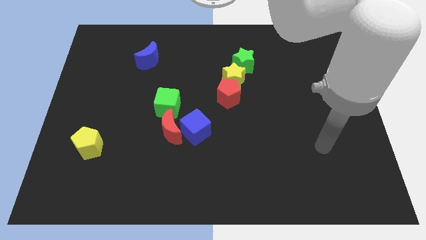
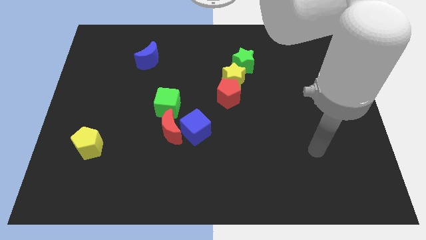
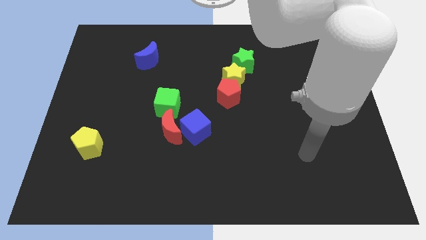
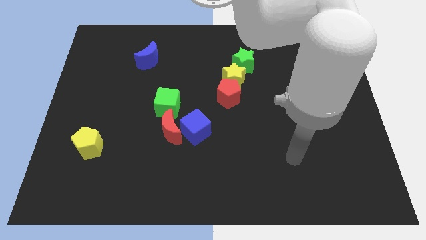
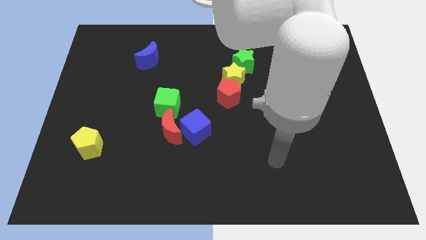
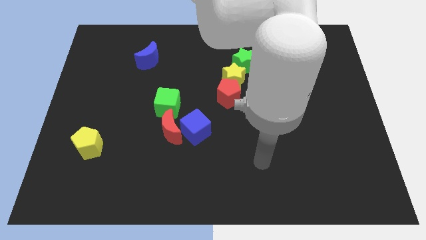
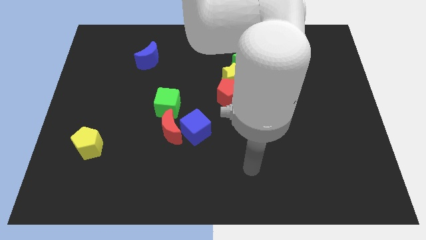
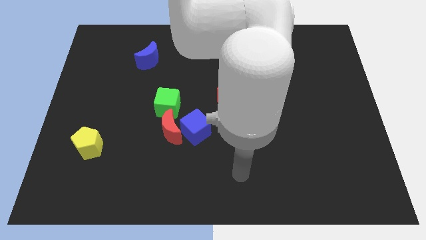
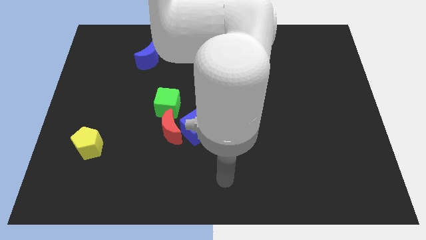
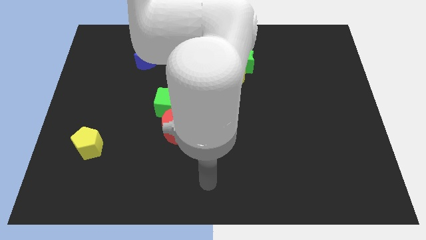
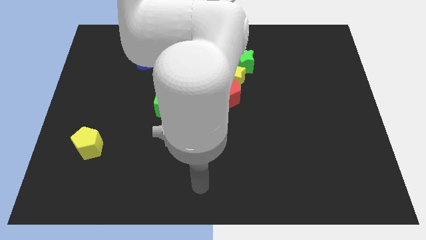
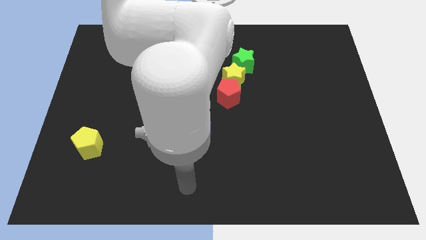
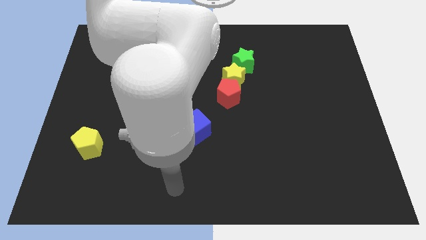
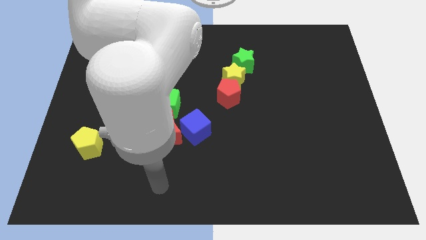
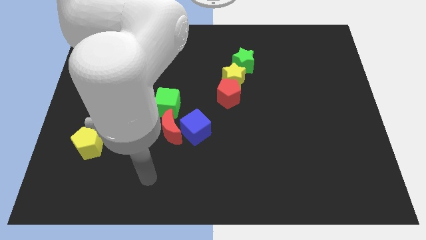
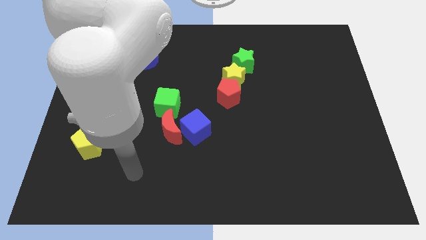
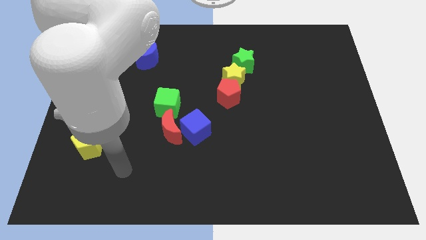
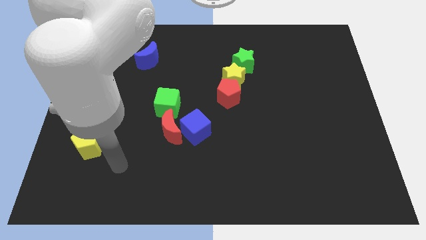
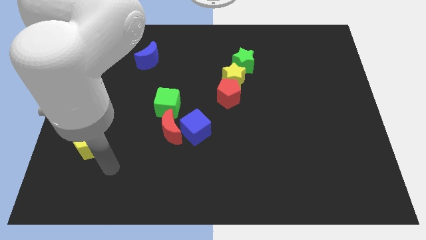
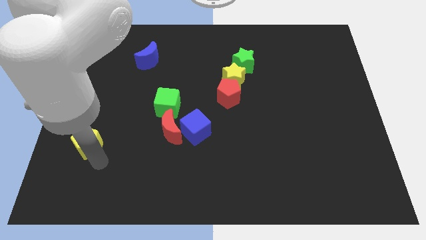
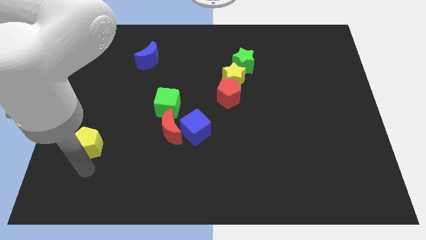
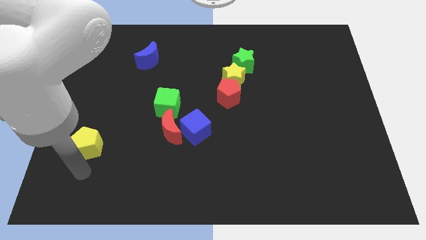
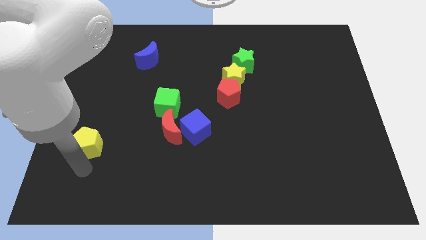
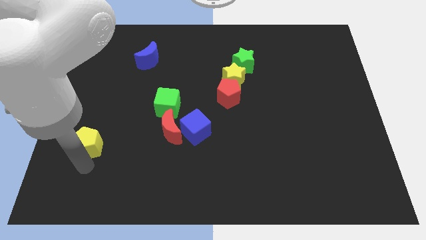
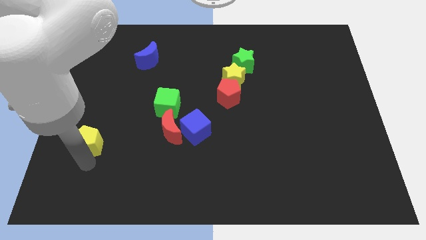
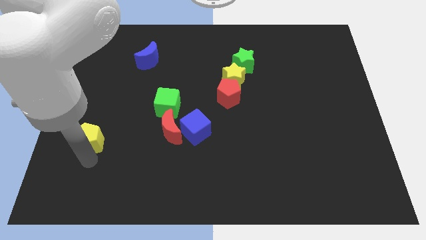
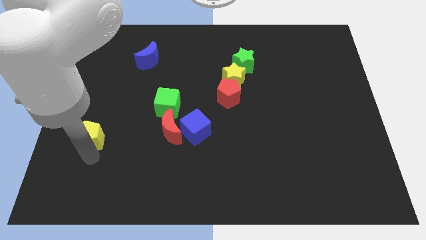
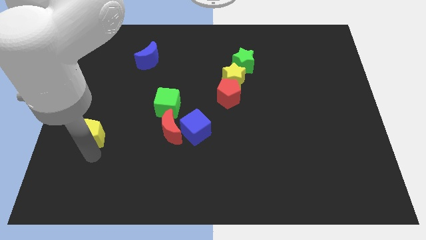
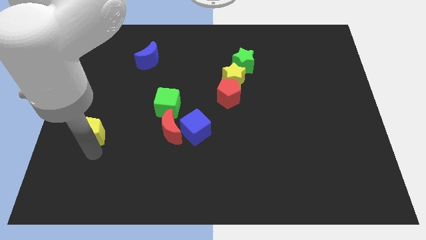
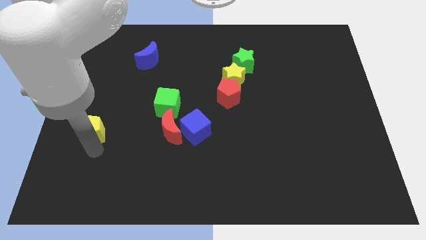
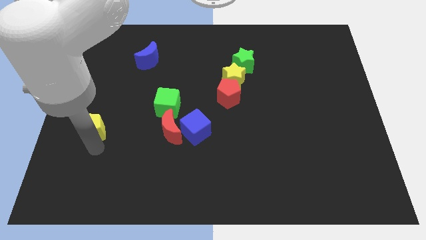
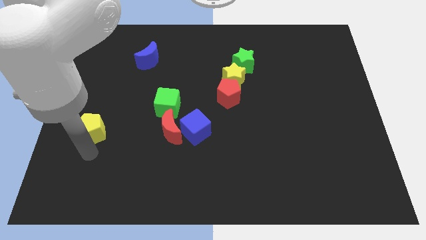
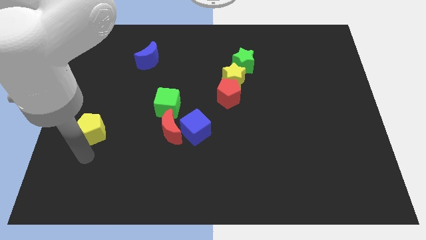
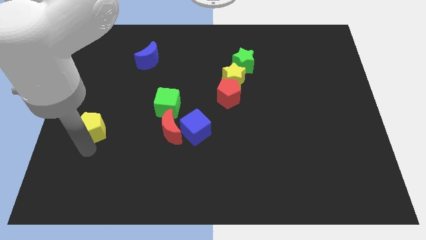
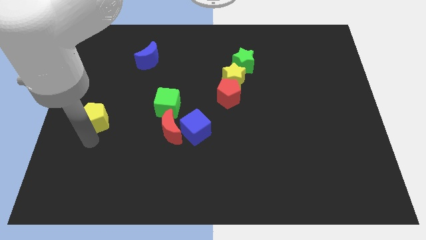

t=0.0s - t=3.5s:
slightly move the yellow pentagon up

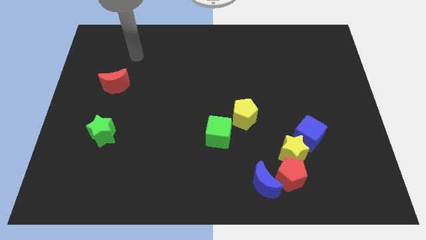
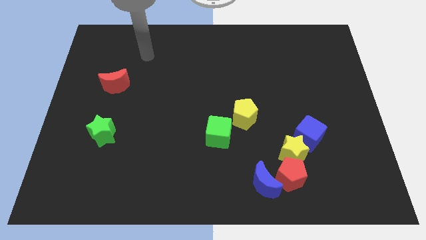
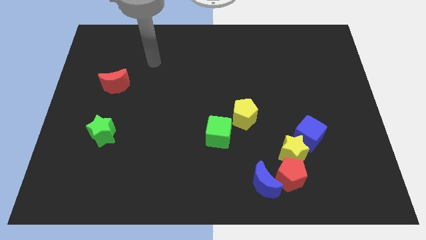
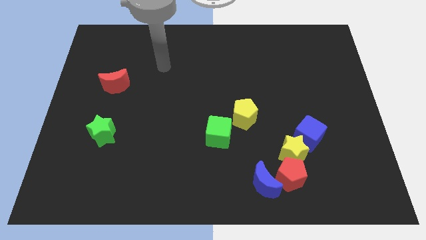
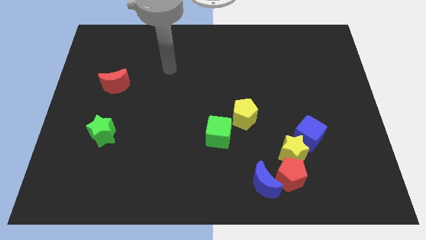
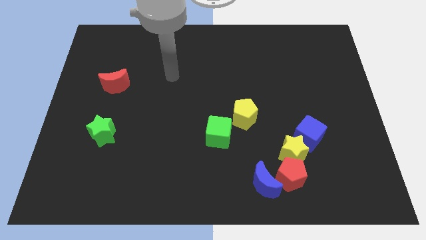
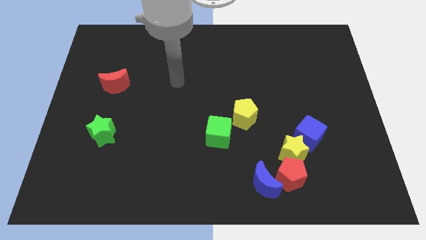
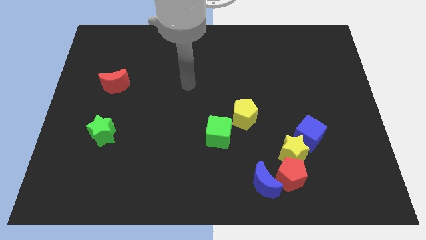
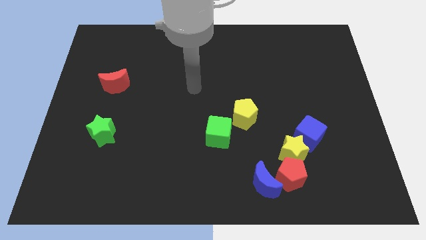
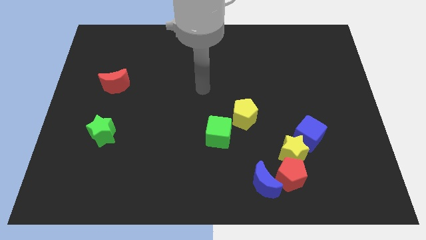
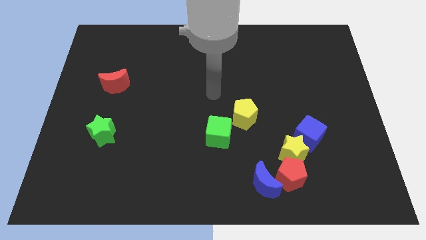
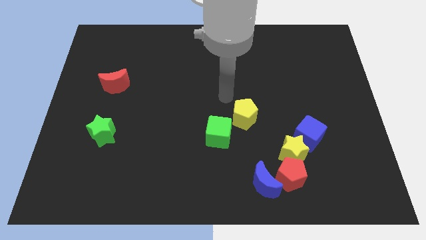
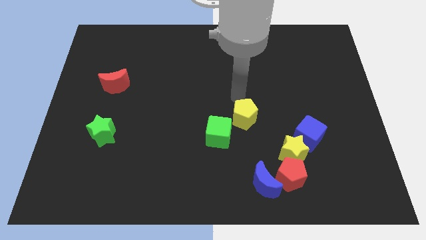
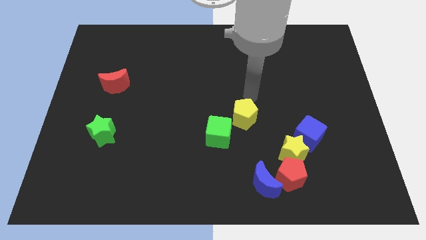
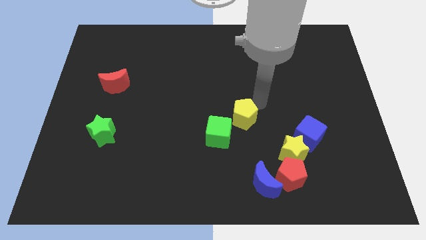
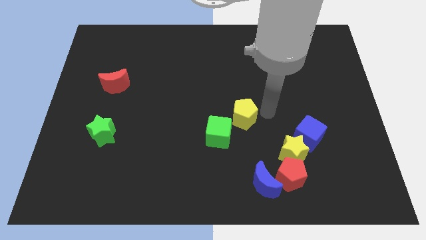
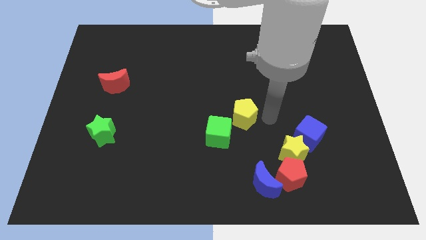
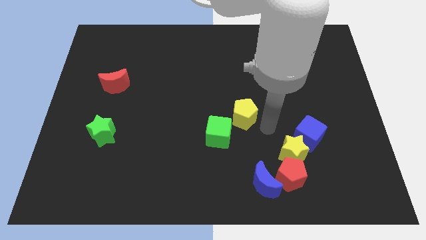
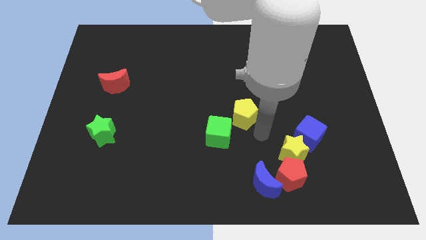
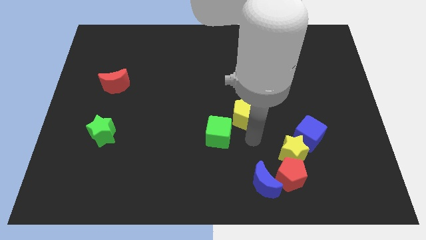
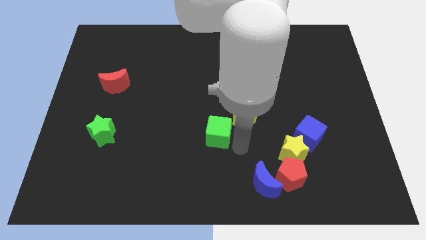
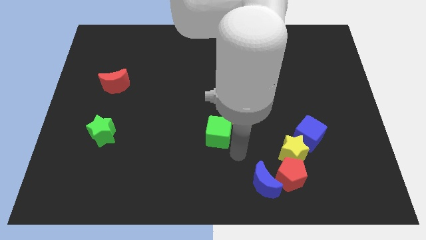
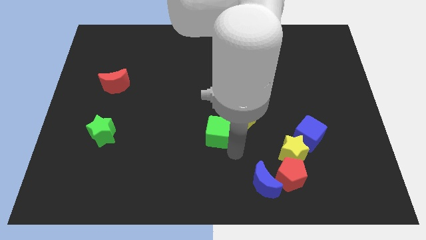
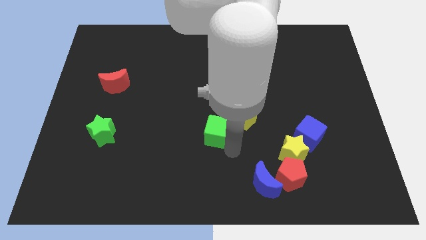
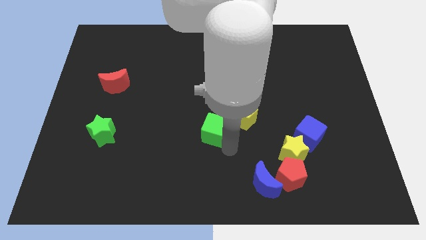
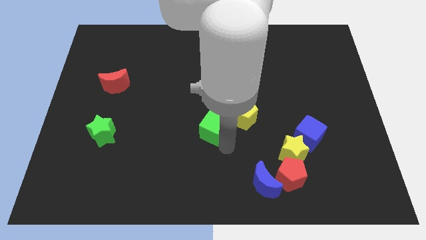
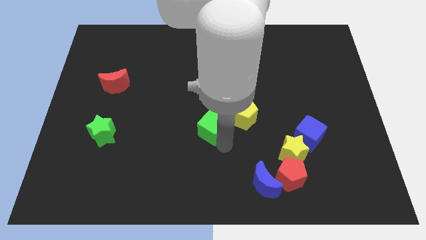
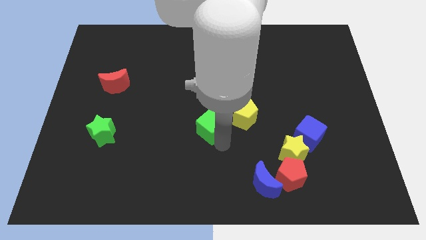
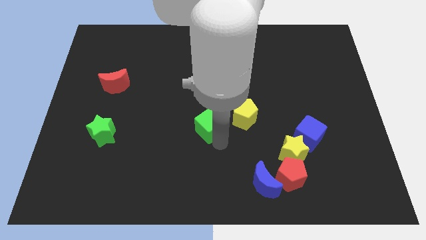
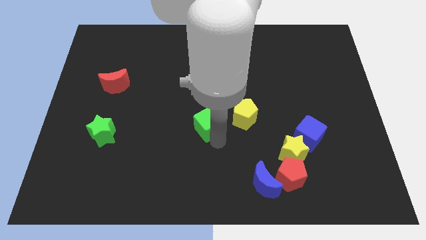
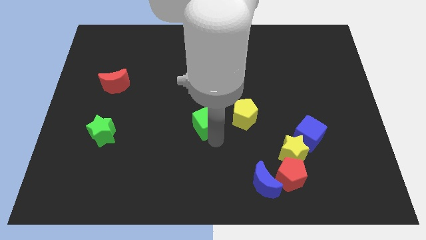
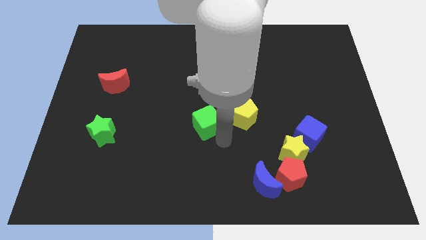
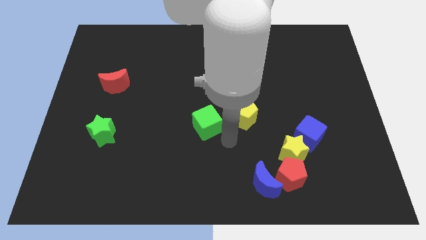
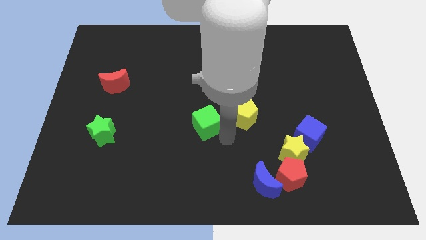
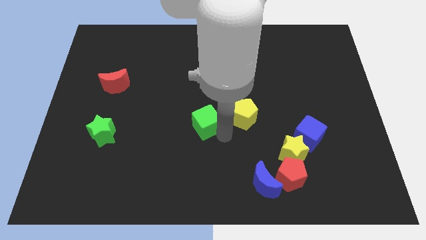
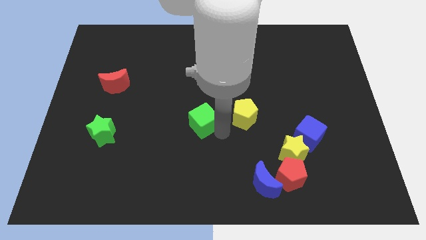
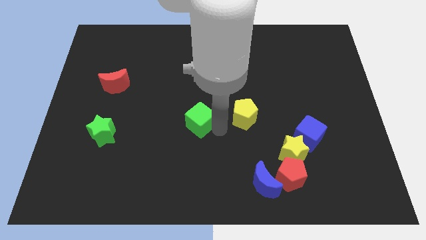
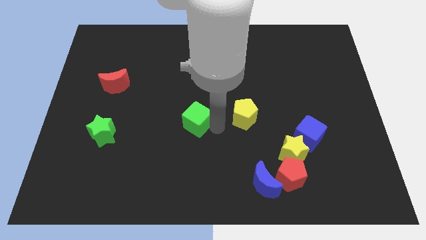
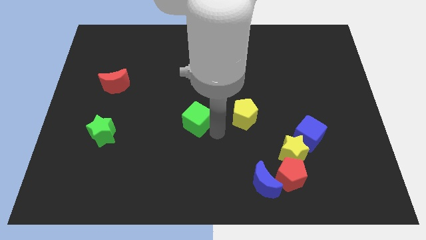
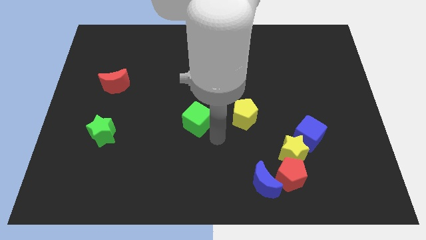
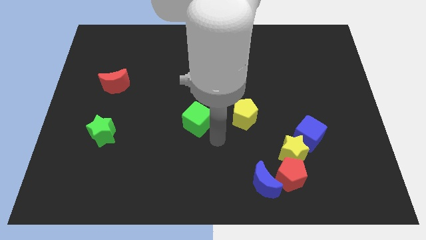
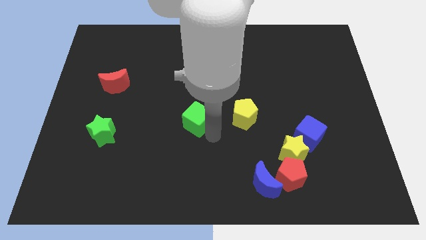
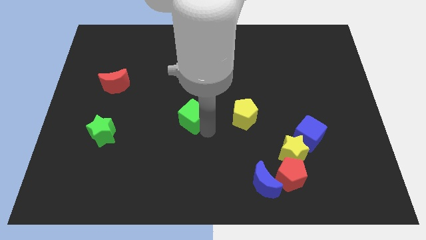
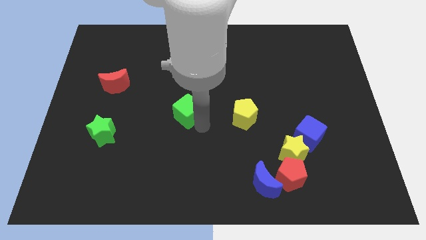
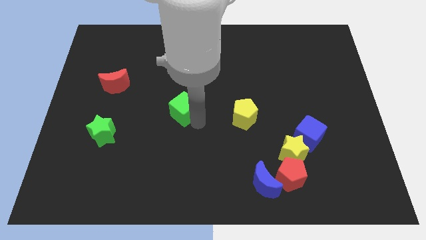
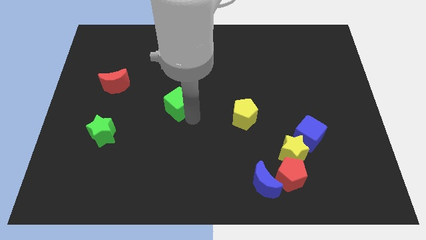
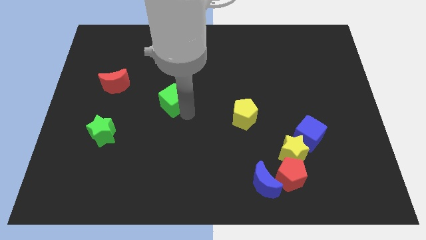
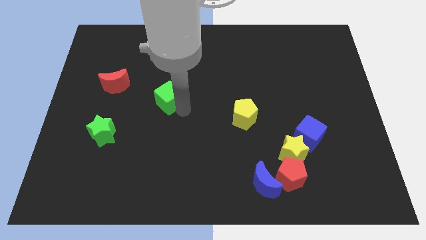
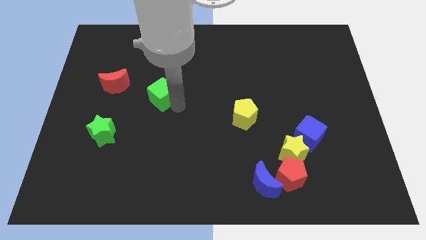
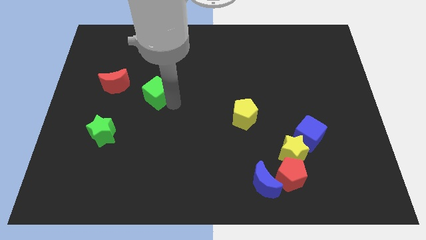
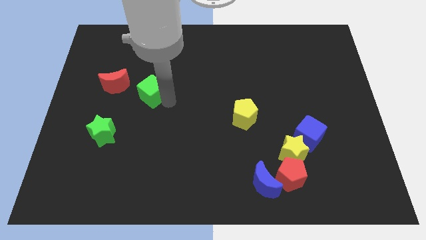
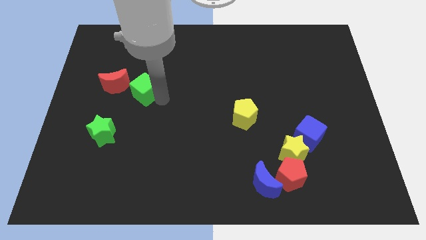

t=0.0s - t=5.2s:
slide the green cube diagonally up and left
